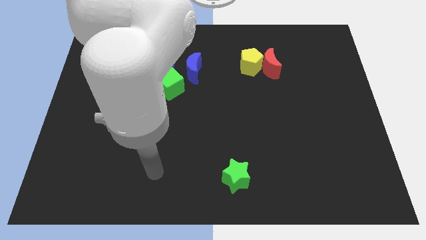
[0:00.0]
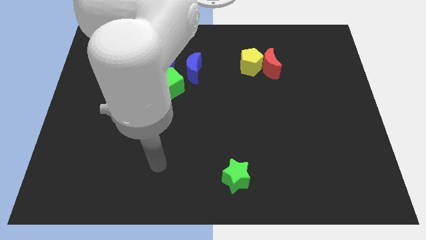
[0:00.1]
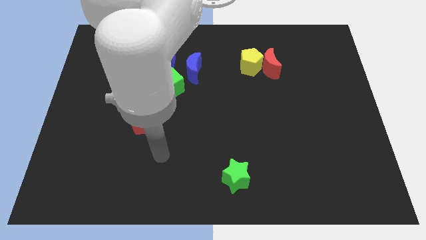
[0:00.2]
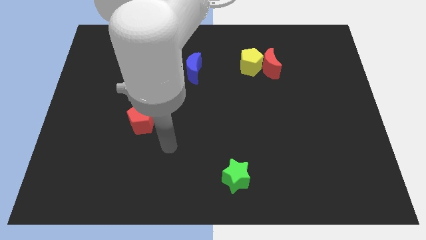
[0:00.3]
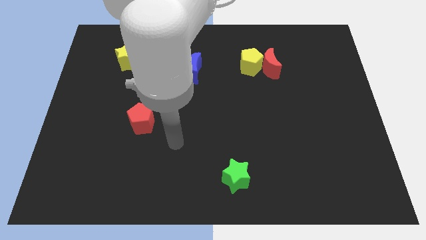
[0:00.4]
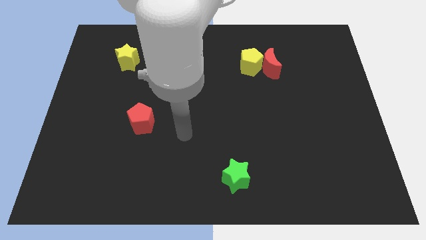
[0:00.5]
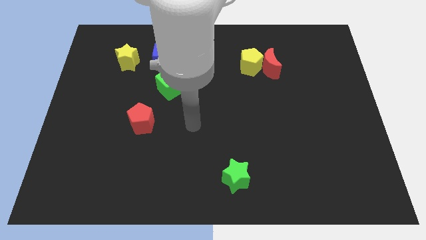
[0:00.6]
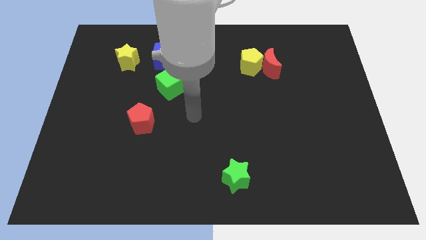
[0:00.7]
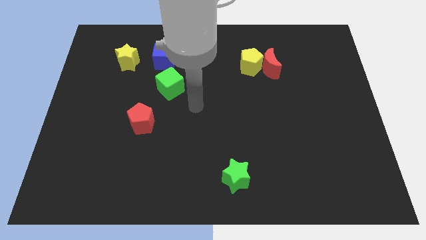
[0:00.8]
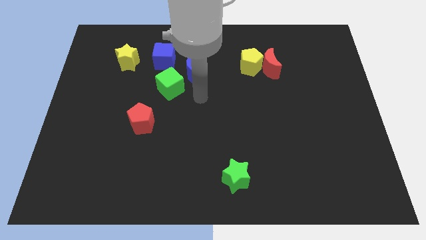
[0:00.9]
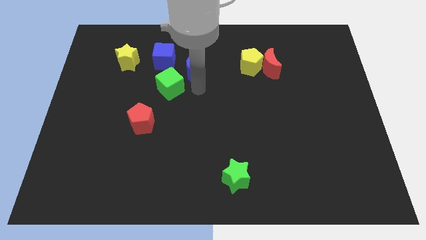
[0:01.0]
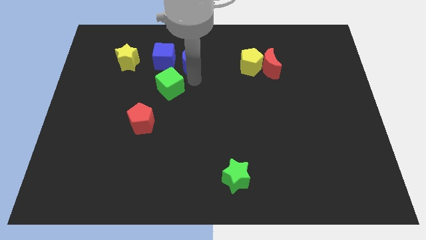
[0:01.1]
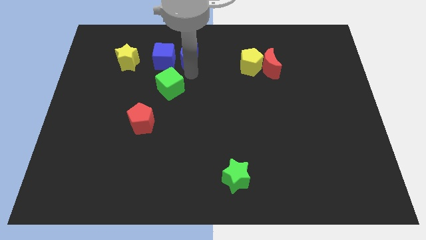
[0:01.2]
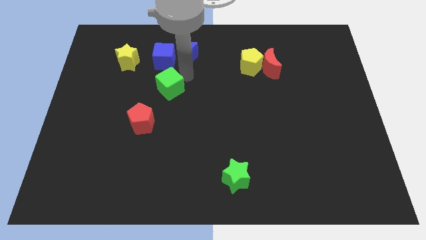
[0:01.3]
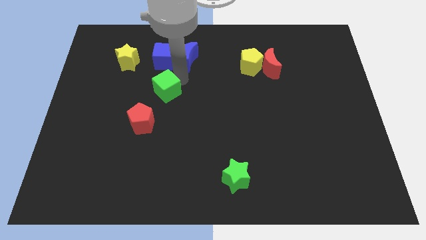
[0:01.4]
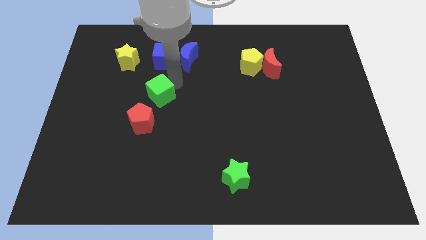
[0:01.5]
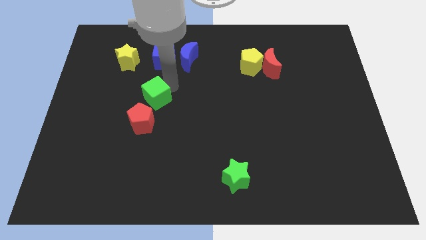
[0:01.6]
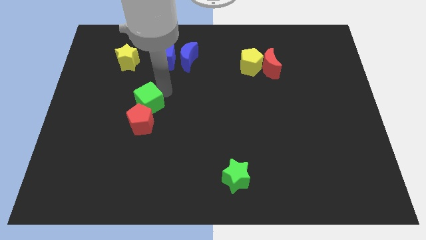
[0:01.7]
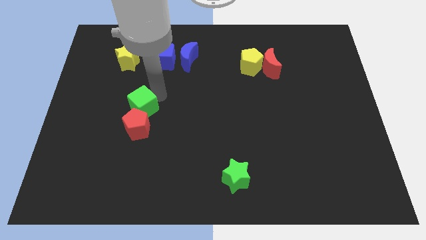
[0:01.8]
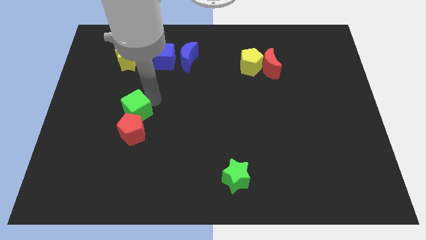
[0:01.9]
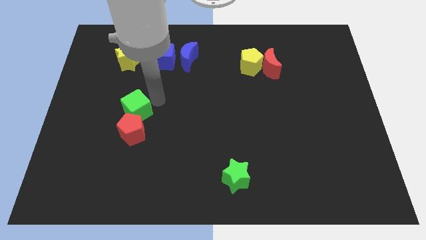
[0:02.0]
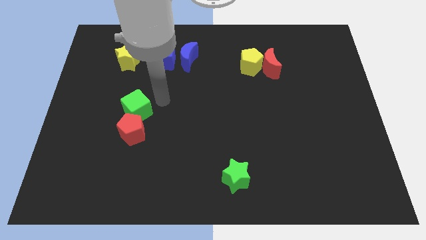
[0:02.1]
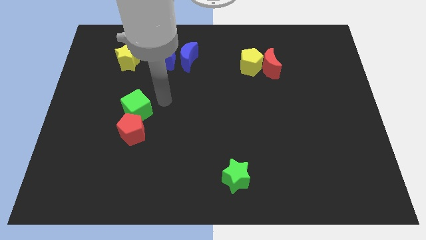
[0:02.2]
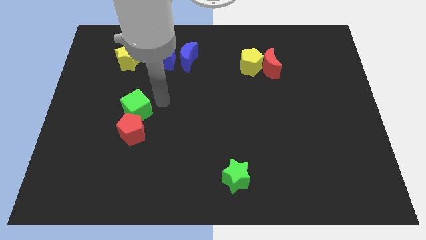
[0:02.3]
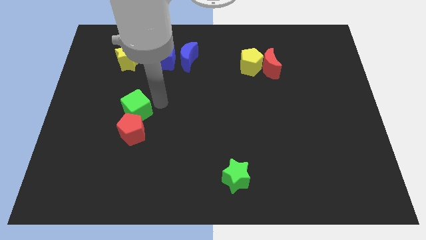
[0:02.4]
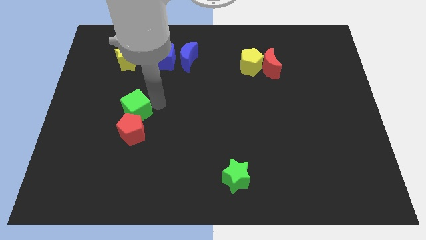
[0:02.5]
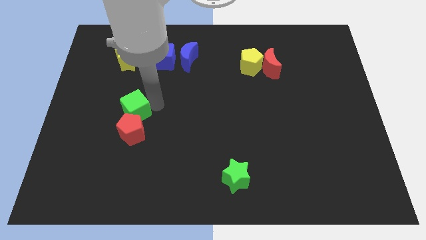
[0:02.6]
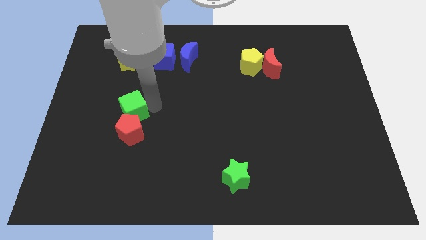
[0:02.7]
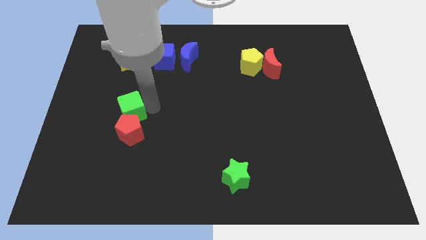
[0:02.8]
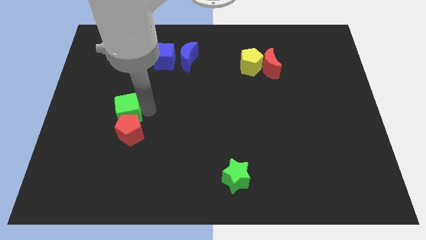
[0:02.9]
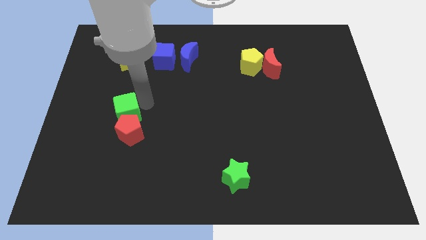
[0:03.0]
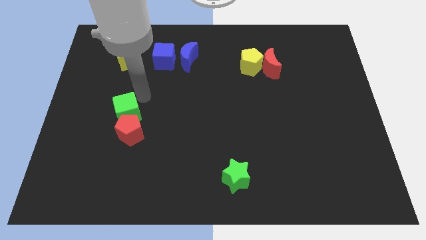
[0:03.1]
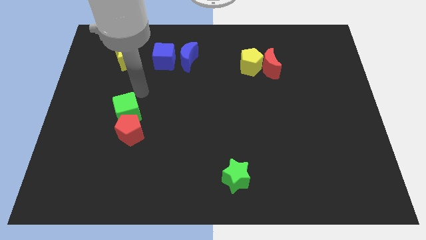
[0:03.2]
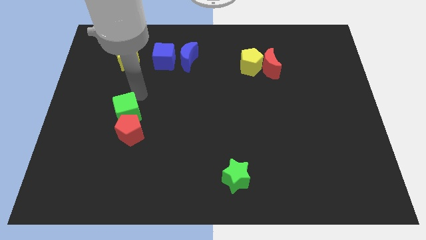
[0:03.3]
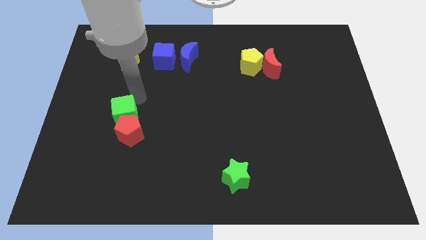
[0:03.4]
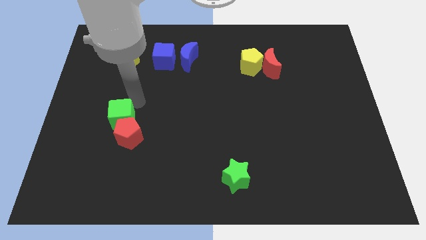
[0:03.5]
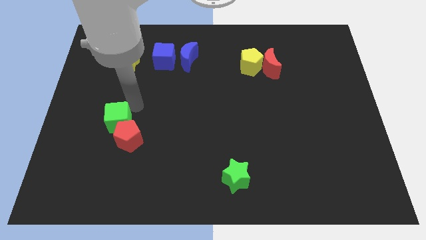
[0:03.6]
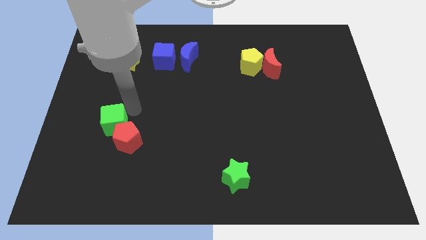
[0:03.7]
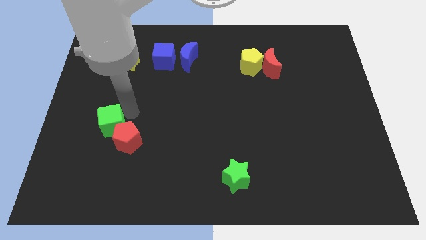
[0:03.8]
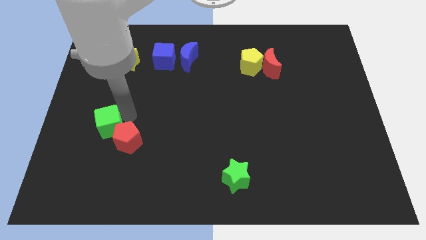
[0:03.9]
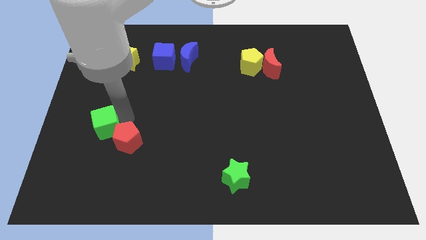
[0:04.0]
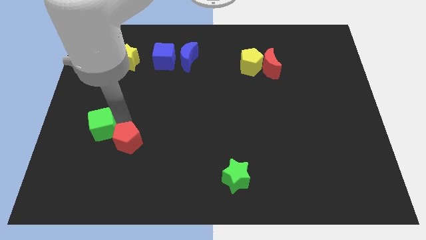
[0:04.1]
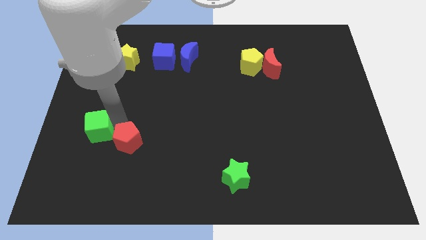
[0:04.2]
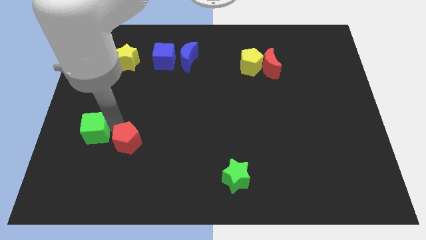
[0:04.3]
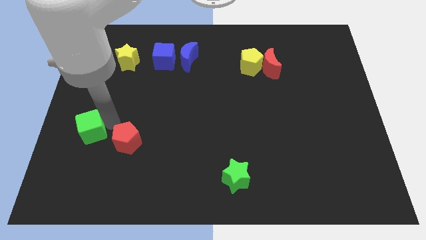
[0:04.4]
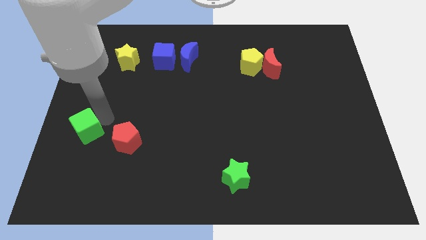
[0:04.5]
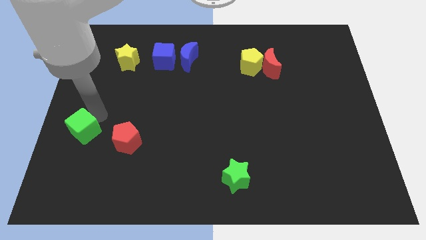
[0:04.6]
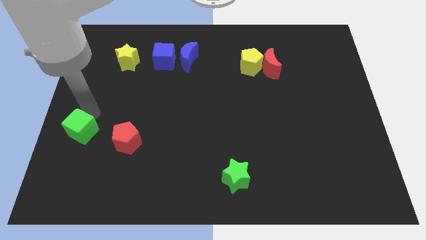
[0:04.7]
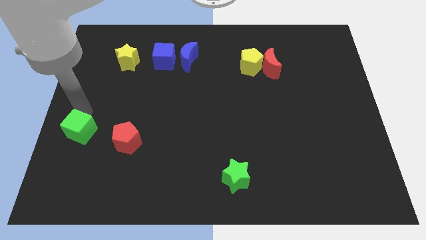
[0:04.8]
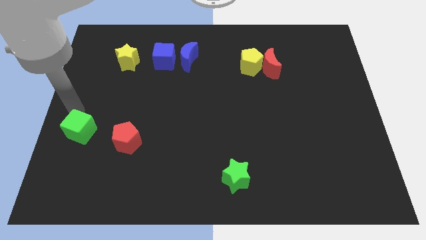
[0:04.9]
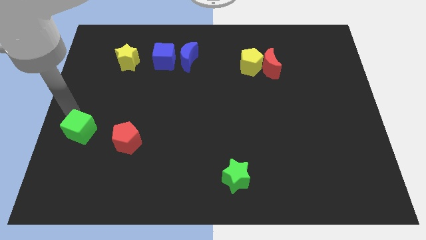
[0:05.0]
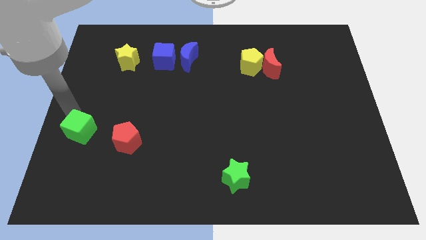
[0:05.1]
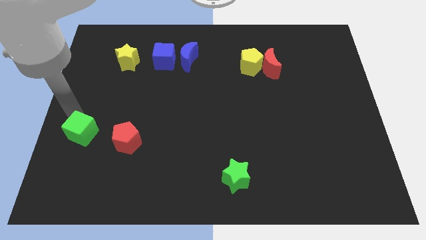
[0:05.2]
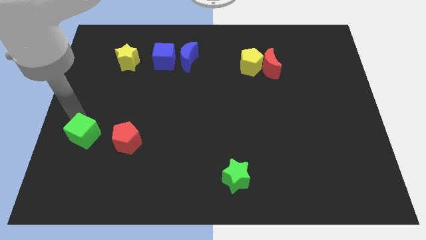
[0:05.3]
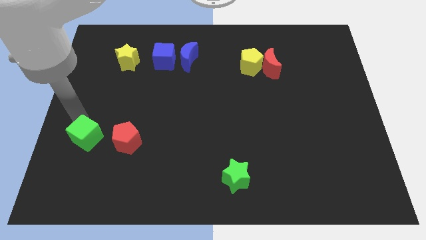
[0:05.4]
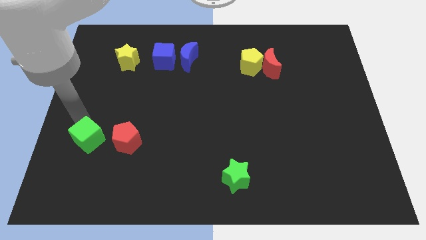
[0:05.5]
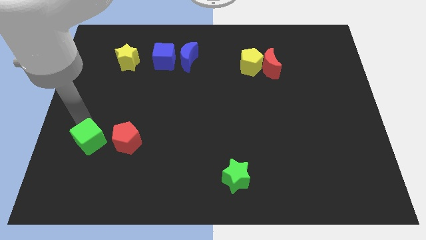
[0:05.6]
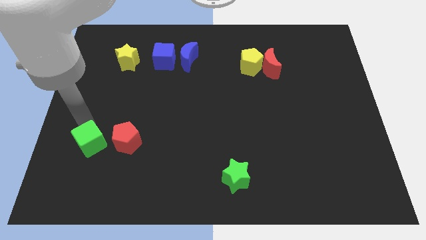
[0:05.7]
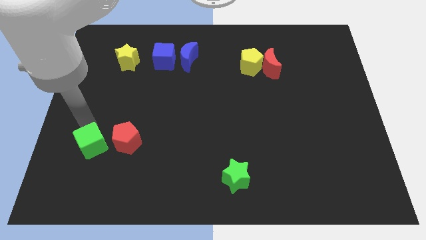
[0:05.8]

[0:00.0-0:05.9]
put the green cube diagonally down and to the left of the red pentagon

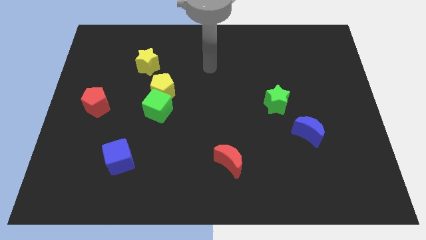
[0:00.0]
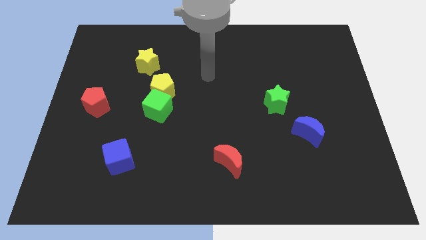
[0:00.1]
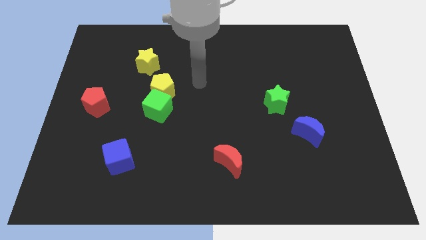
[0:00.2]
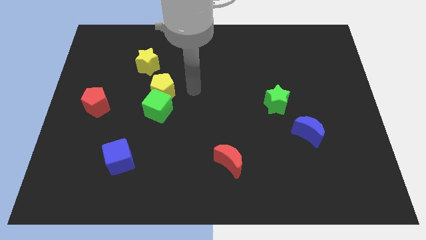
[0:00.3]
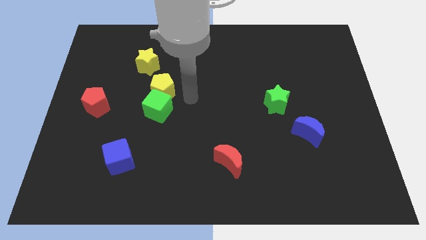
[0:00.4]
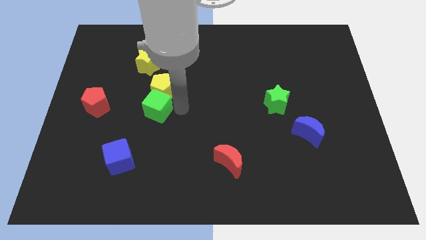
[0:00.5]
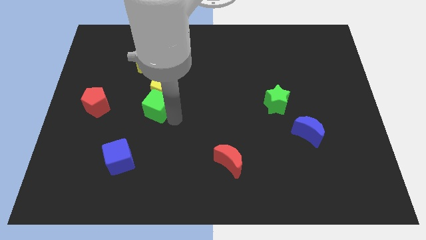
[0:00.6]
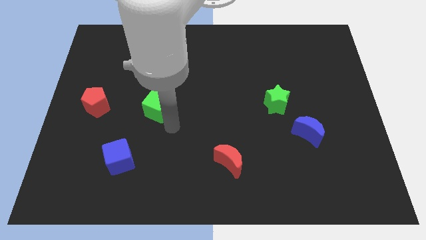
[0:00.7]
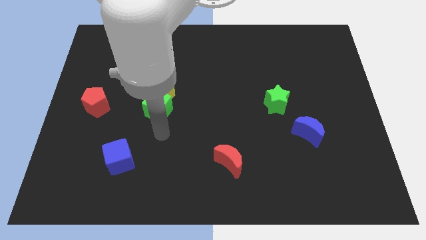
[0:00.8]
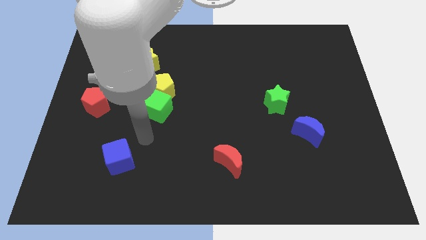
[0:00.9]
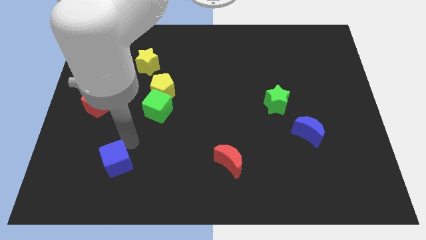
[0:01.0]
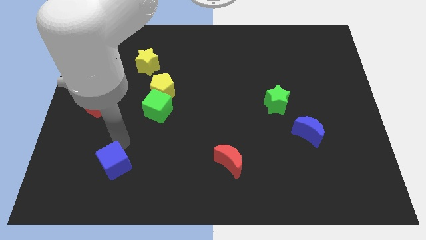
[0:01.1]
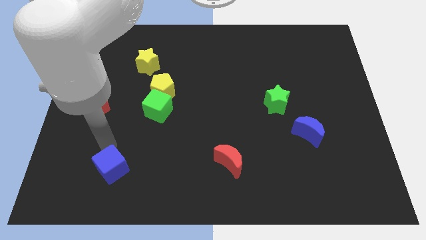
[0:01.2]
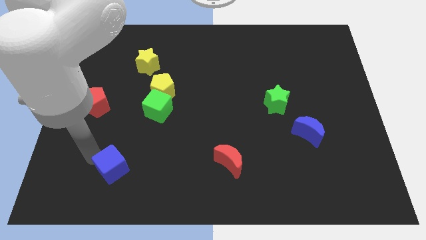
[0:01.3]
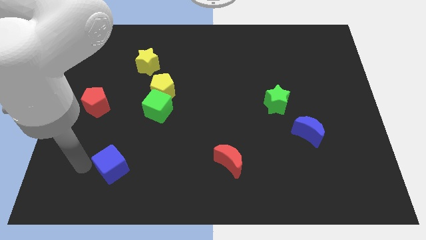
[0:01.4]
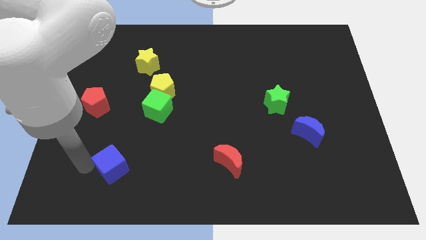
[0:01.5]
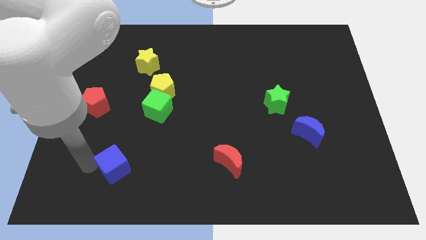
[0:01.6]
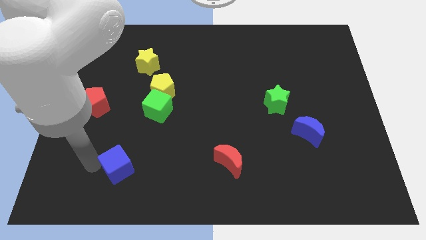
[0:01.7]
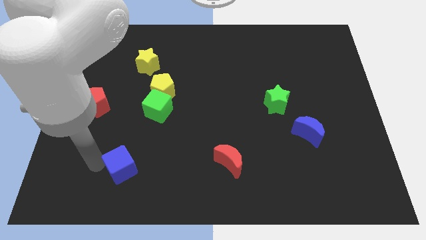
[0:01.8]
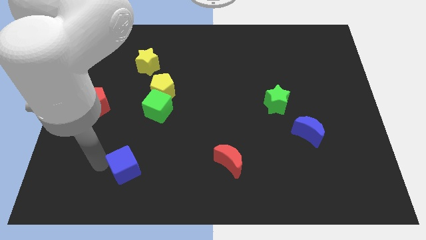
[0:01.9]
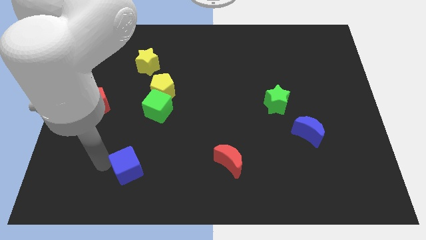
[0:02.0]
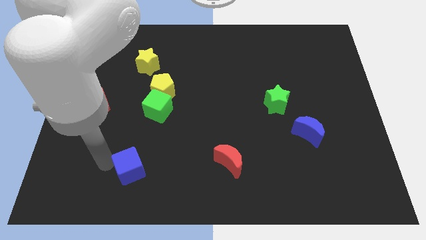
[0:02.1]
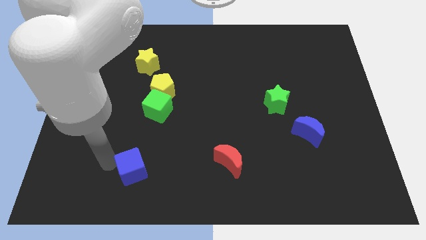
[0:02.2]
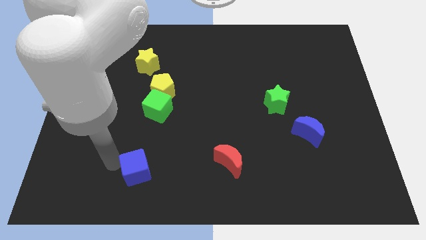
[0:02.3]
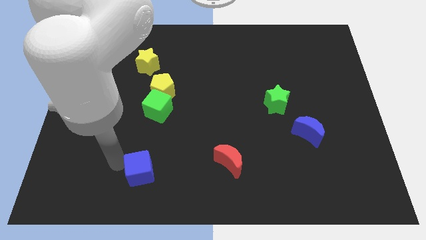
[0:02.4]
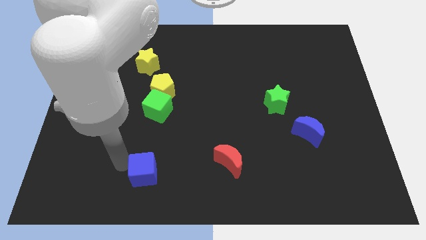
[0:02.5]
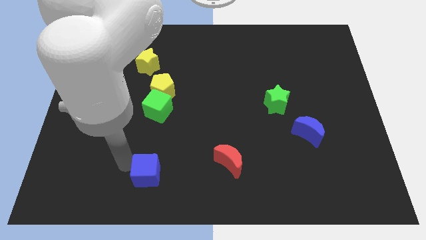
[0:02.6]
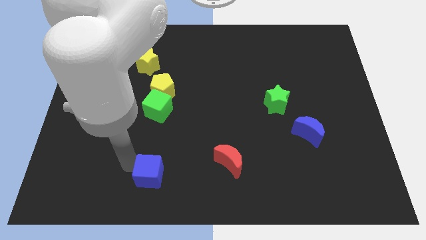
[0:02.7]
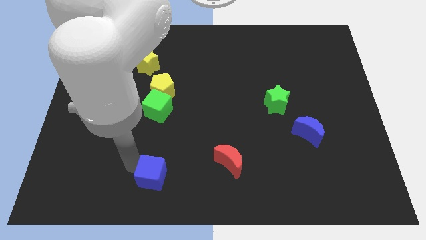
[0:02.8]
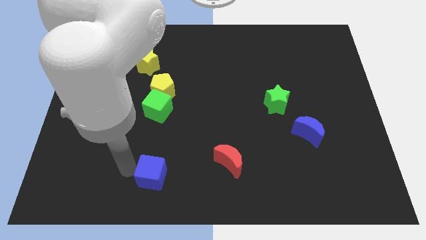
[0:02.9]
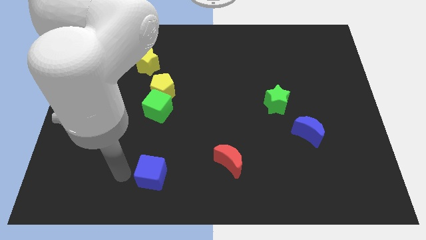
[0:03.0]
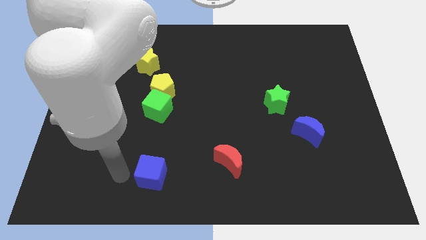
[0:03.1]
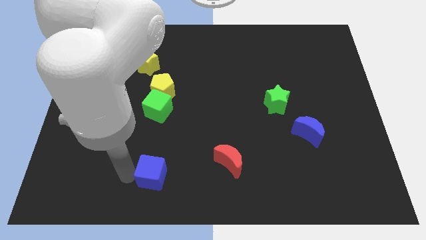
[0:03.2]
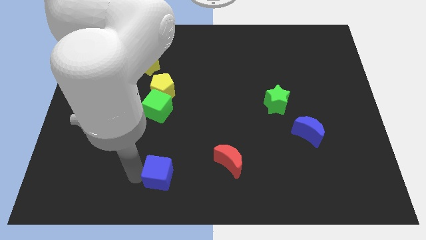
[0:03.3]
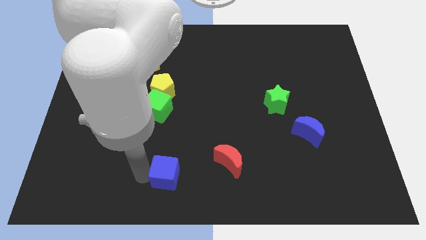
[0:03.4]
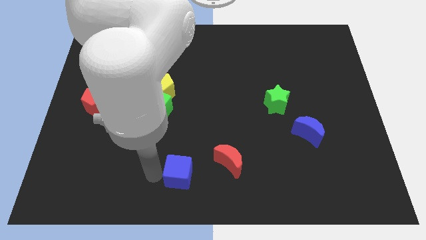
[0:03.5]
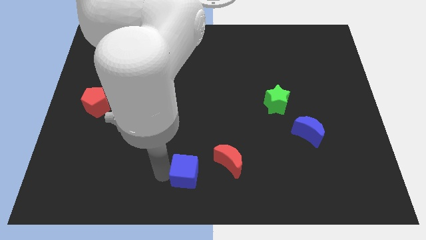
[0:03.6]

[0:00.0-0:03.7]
move the blue cube diagonally down and to the left of the red moon
